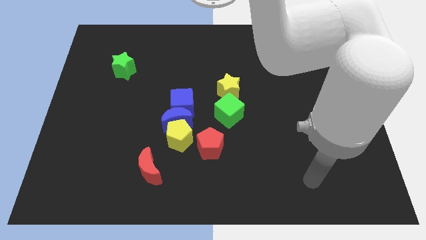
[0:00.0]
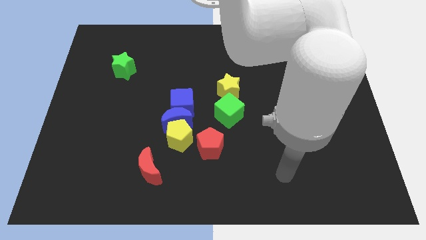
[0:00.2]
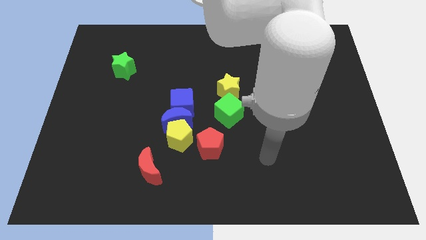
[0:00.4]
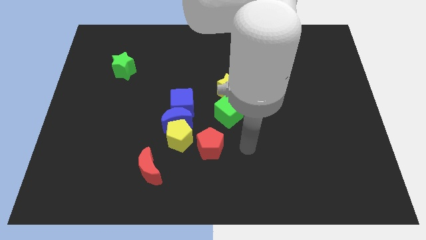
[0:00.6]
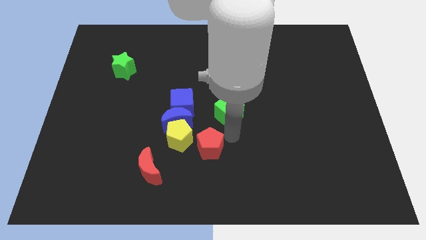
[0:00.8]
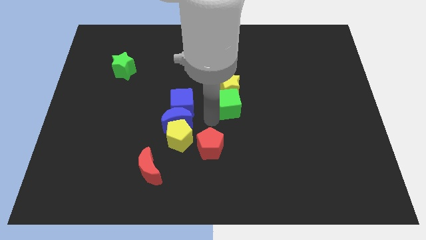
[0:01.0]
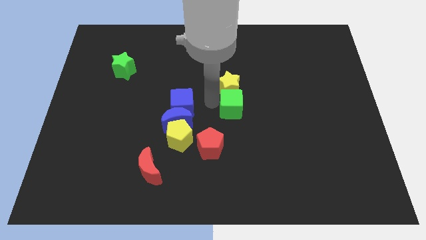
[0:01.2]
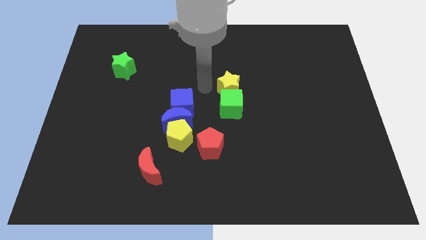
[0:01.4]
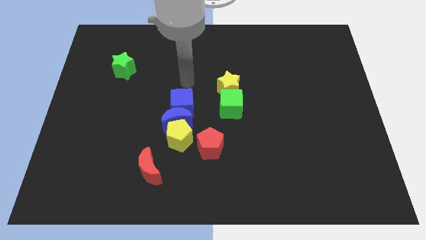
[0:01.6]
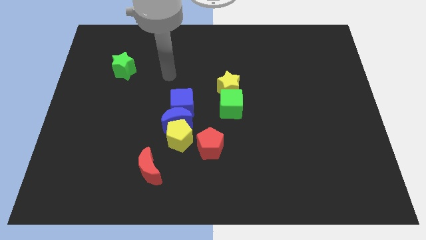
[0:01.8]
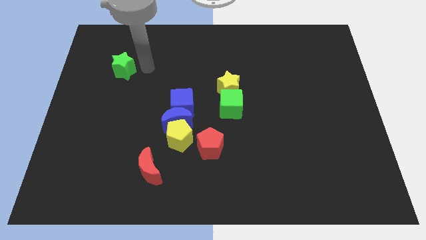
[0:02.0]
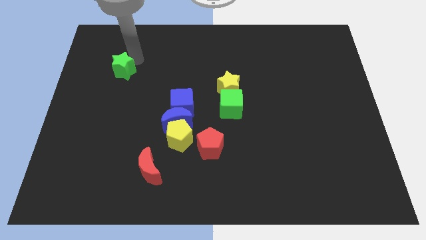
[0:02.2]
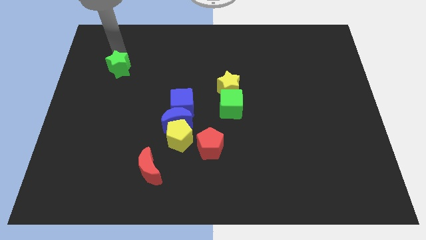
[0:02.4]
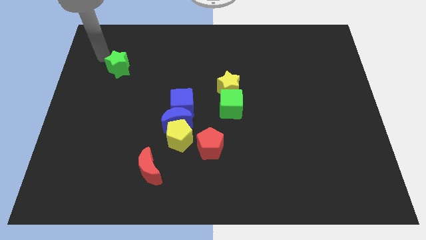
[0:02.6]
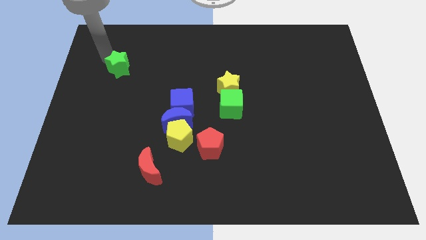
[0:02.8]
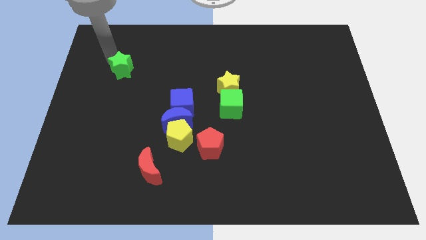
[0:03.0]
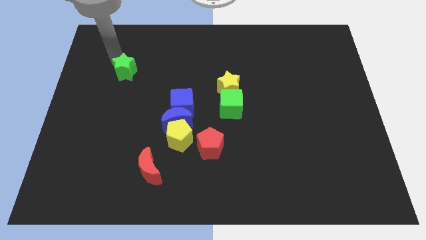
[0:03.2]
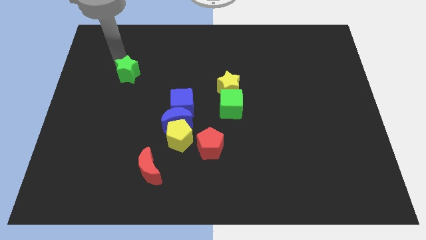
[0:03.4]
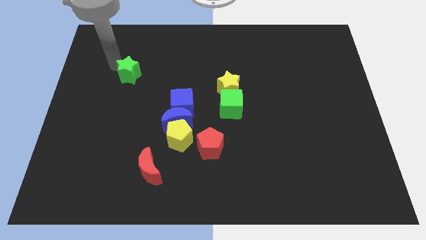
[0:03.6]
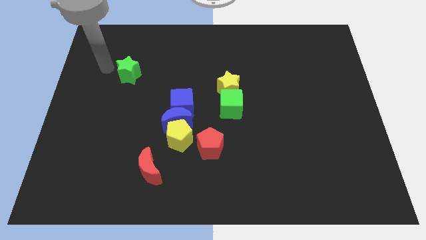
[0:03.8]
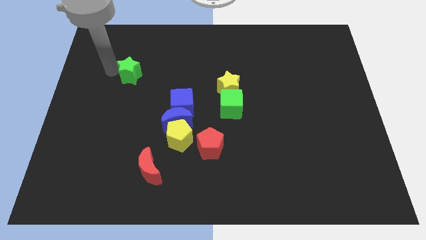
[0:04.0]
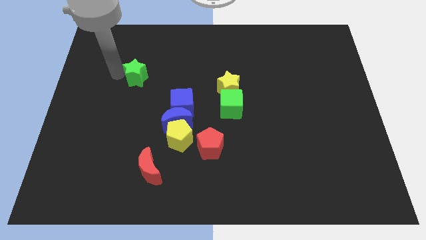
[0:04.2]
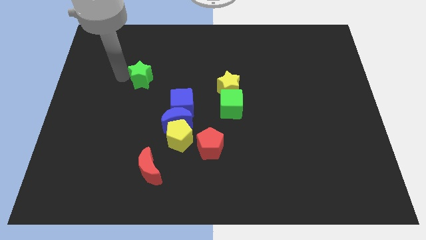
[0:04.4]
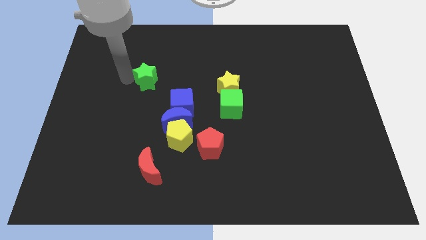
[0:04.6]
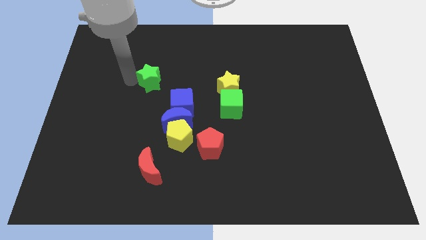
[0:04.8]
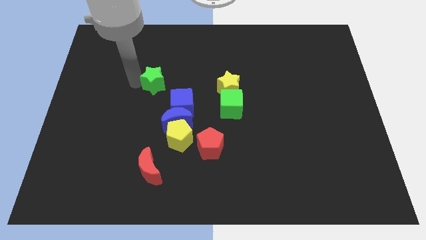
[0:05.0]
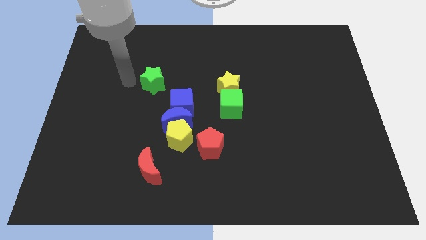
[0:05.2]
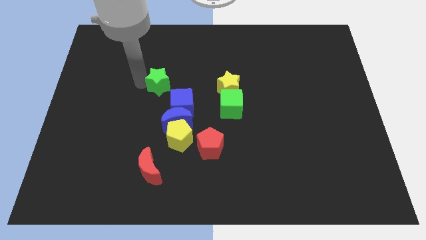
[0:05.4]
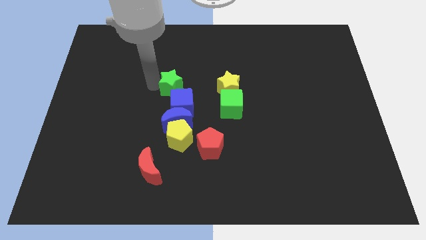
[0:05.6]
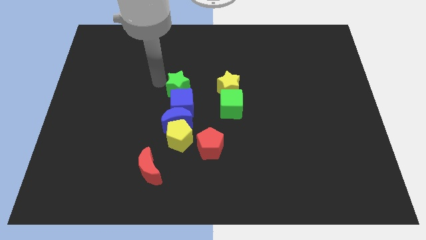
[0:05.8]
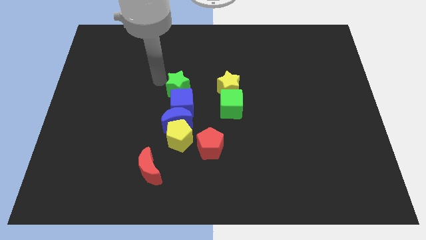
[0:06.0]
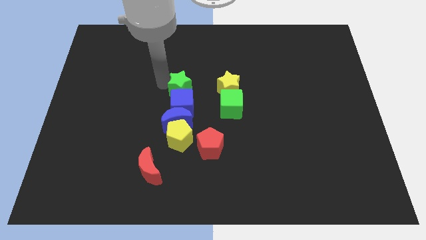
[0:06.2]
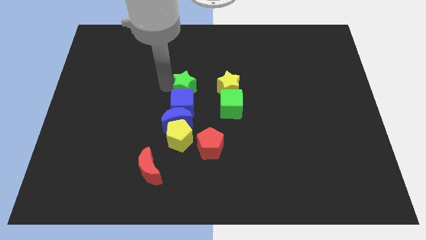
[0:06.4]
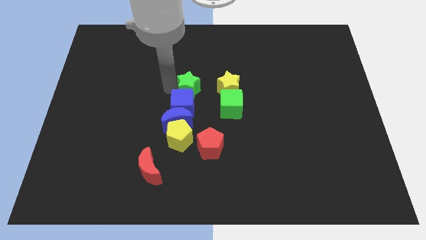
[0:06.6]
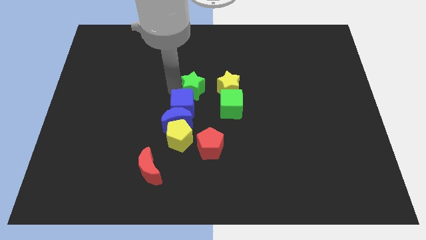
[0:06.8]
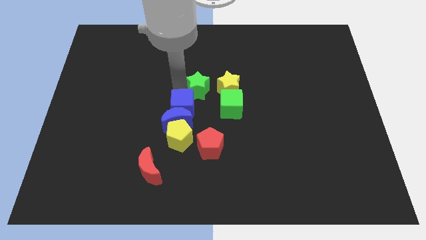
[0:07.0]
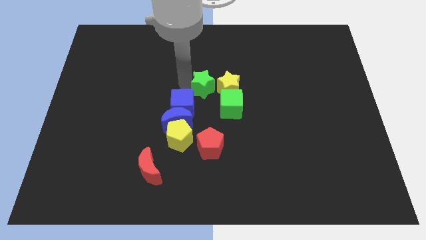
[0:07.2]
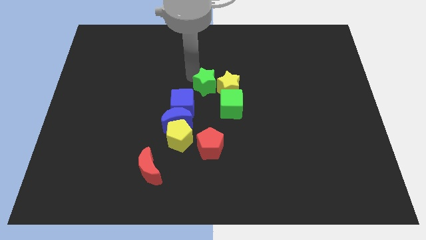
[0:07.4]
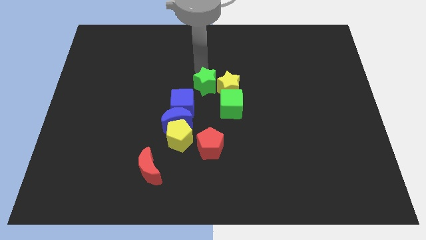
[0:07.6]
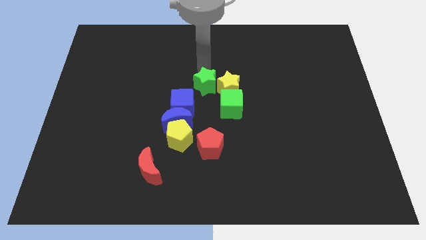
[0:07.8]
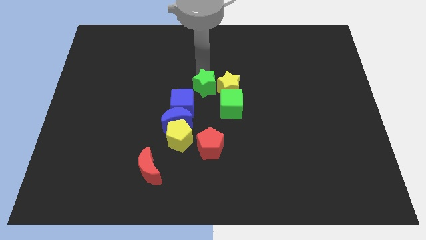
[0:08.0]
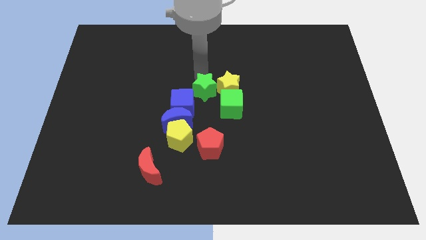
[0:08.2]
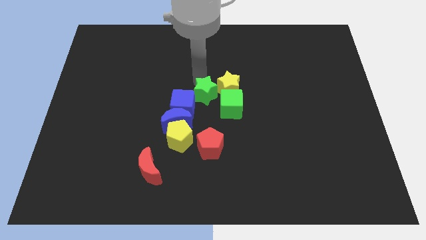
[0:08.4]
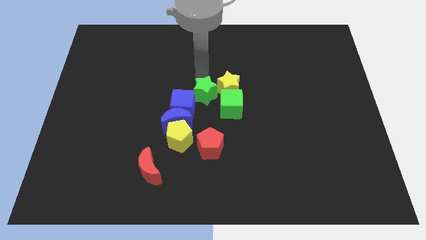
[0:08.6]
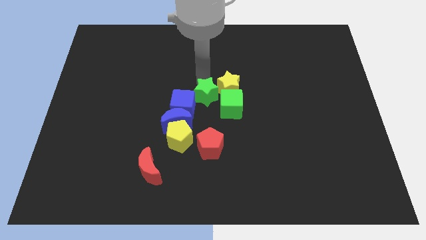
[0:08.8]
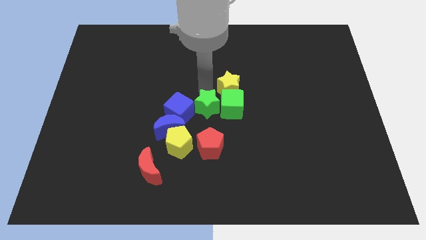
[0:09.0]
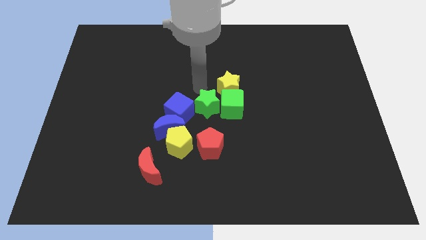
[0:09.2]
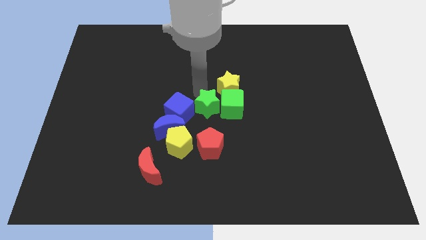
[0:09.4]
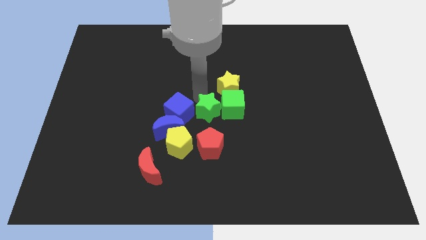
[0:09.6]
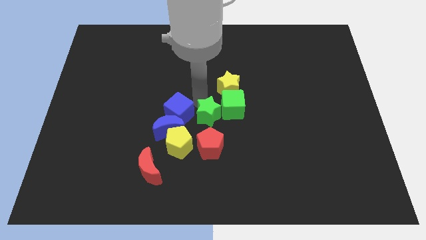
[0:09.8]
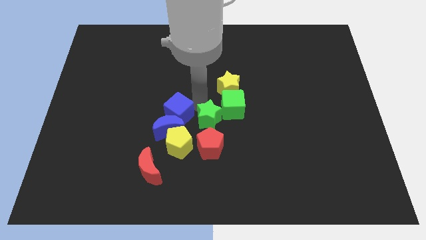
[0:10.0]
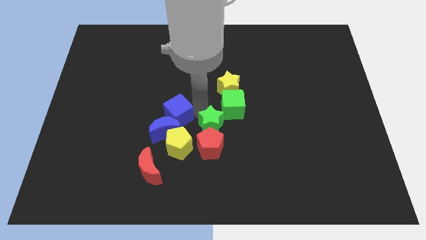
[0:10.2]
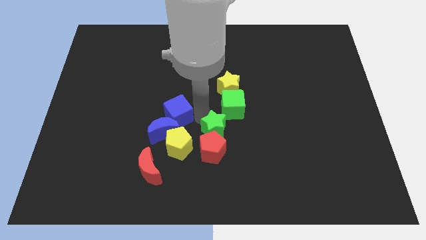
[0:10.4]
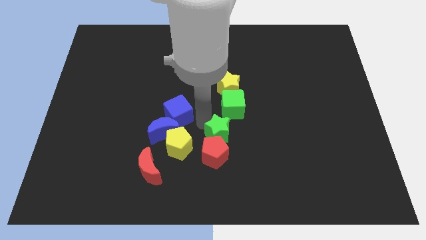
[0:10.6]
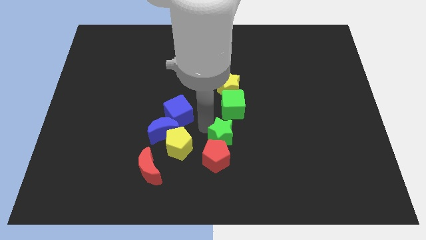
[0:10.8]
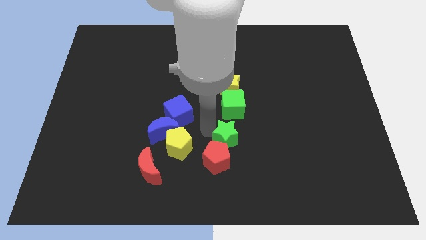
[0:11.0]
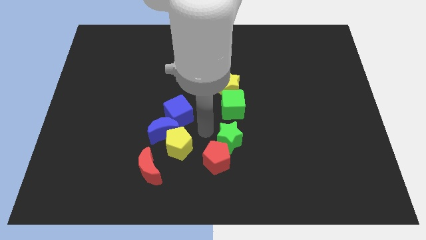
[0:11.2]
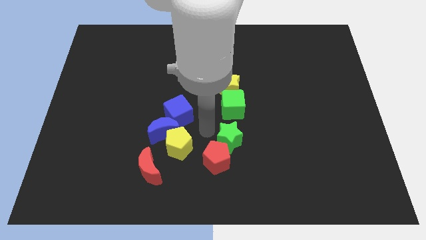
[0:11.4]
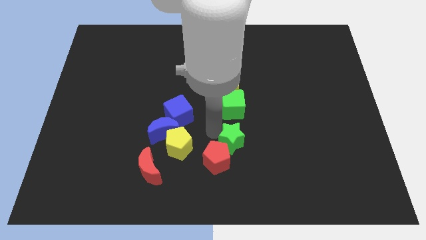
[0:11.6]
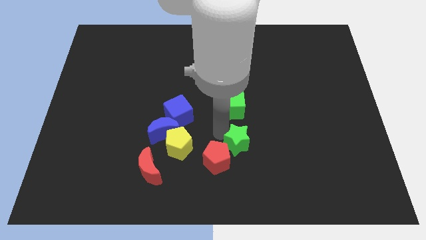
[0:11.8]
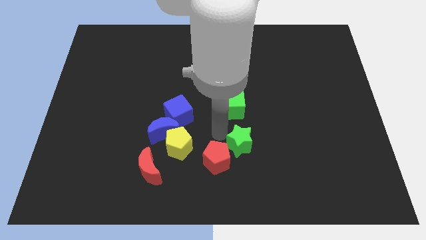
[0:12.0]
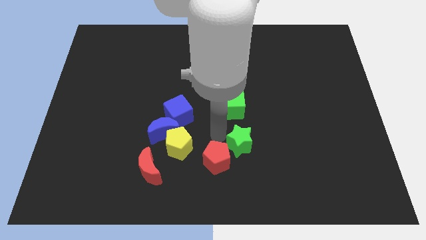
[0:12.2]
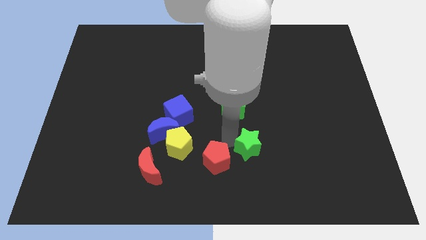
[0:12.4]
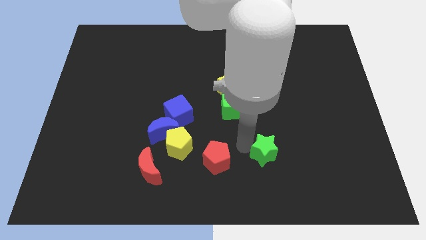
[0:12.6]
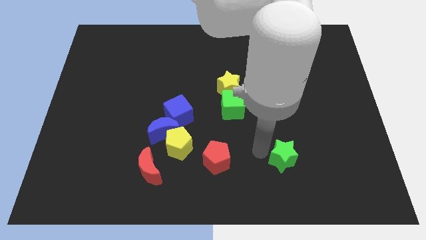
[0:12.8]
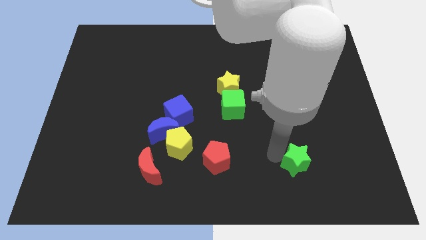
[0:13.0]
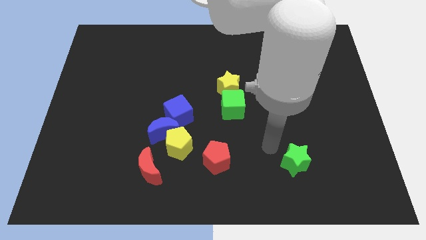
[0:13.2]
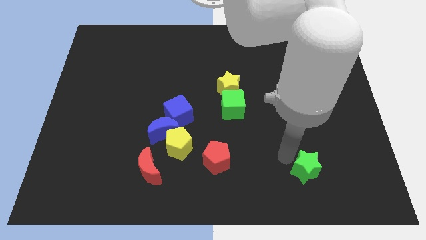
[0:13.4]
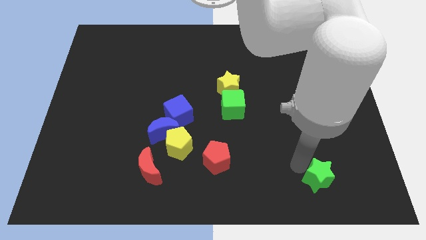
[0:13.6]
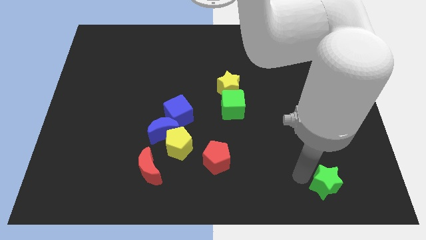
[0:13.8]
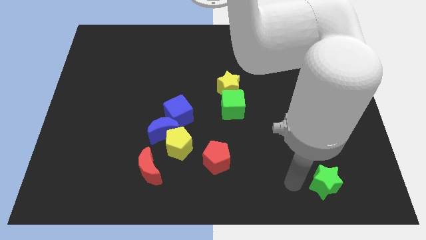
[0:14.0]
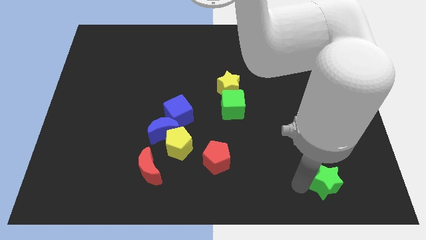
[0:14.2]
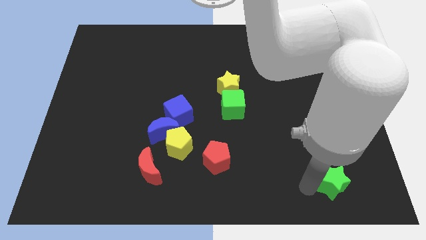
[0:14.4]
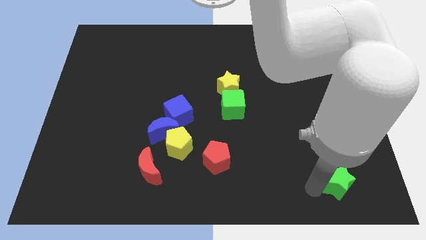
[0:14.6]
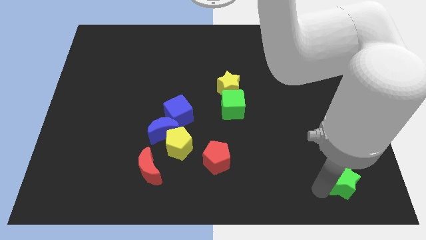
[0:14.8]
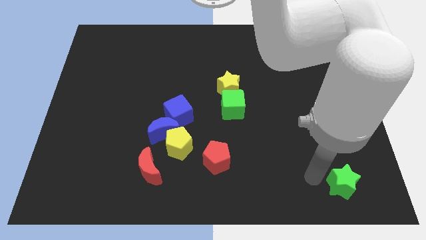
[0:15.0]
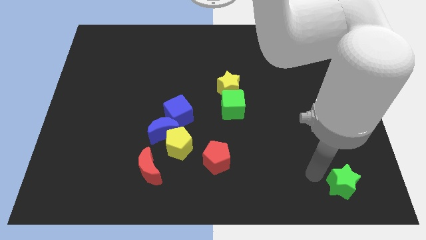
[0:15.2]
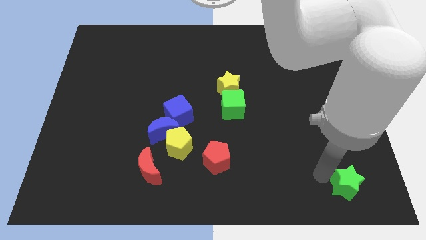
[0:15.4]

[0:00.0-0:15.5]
slide the green star to the bottom right corner
